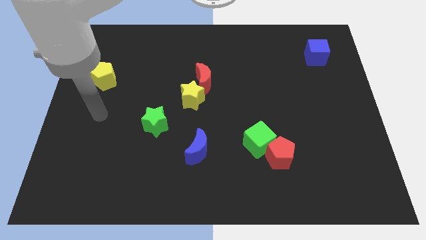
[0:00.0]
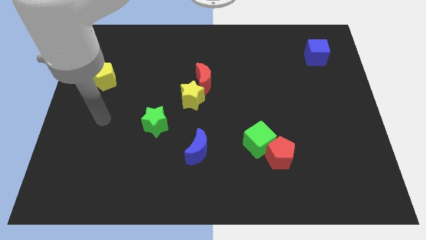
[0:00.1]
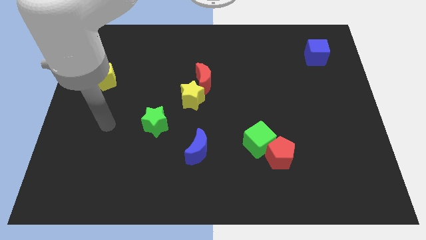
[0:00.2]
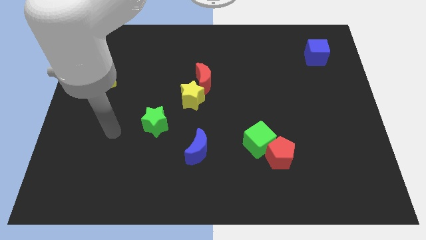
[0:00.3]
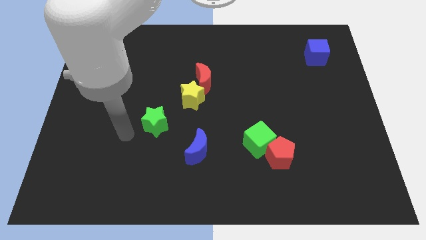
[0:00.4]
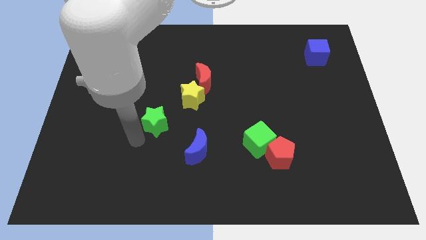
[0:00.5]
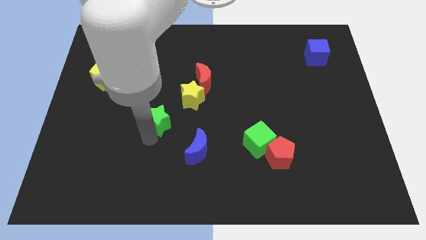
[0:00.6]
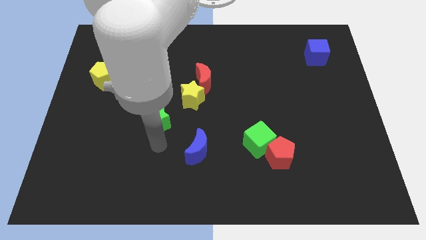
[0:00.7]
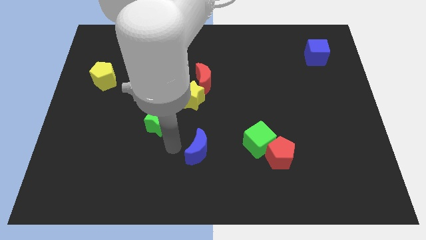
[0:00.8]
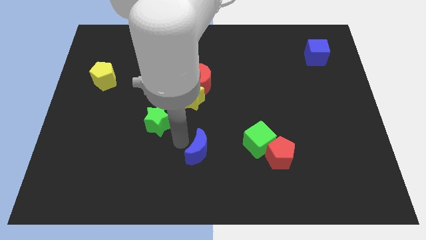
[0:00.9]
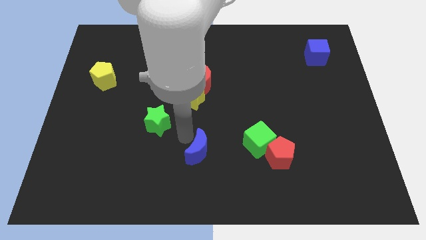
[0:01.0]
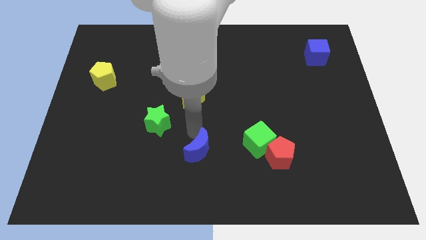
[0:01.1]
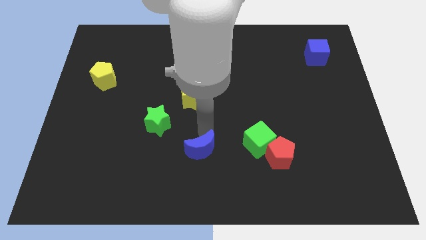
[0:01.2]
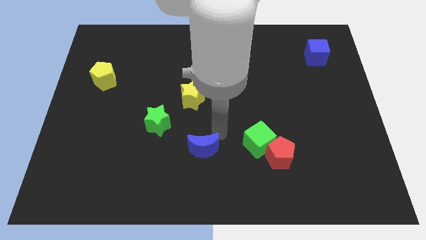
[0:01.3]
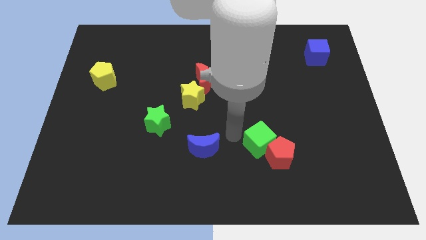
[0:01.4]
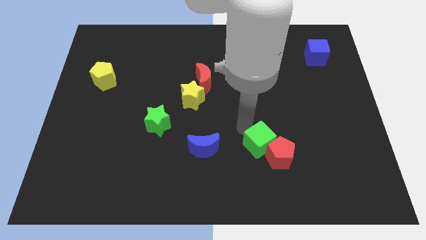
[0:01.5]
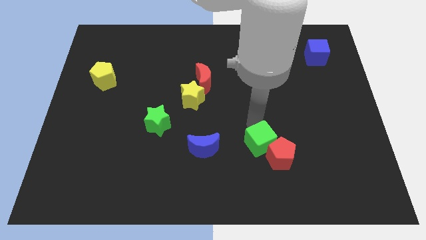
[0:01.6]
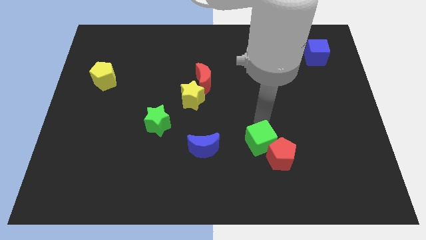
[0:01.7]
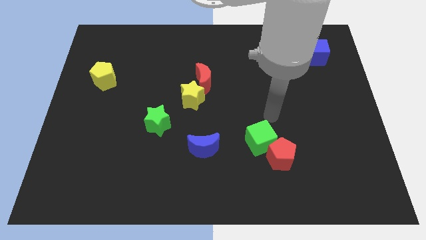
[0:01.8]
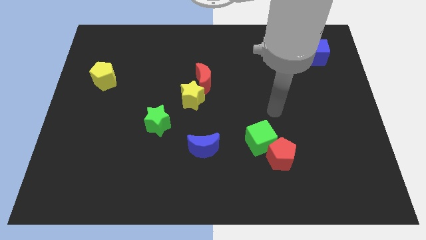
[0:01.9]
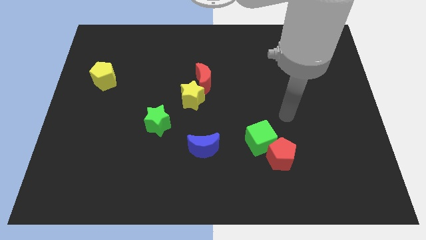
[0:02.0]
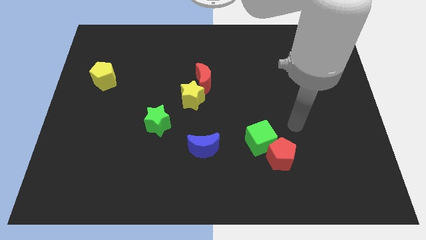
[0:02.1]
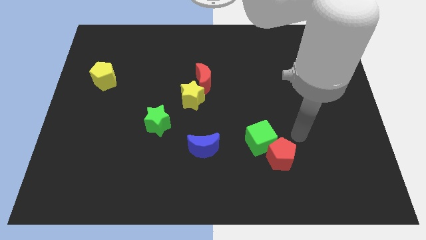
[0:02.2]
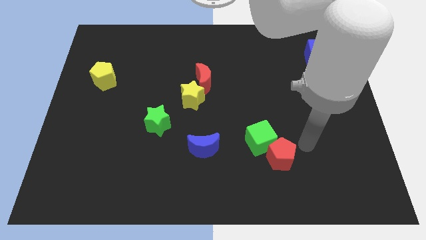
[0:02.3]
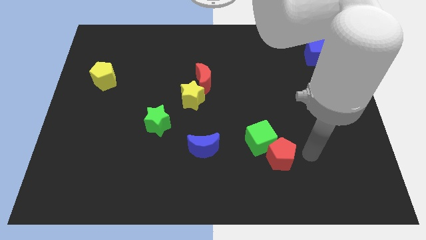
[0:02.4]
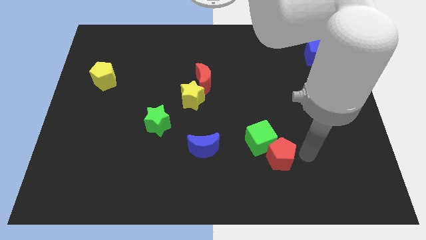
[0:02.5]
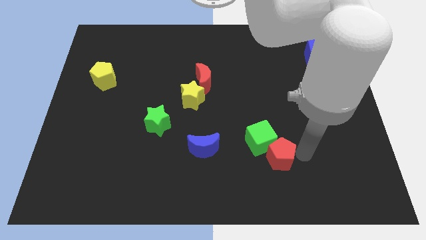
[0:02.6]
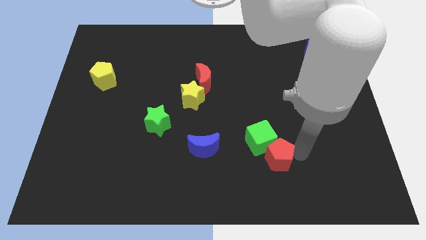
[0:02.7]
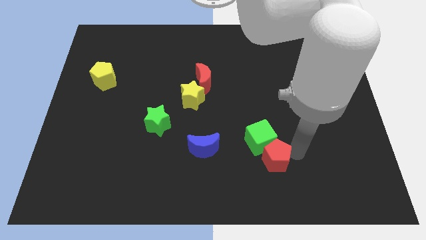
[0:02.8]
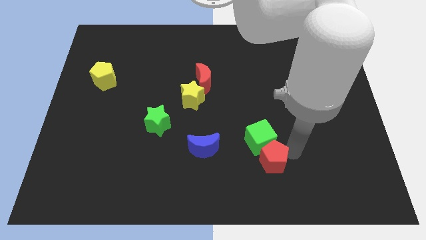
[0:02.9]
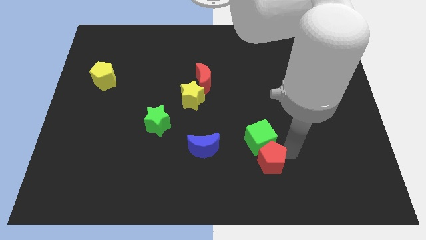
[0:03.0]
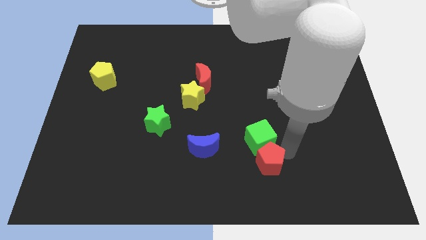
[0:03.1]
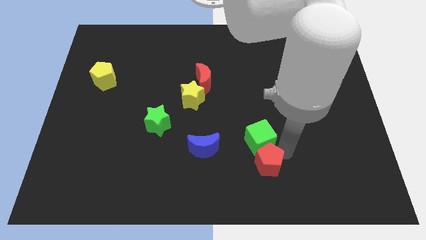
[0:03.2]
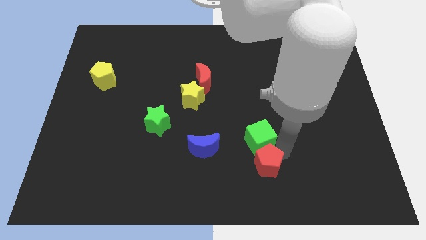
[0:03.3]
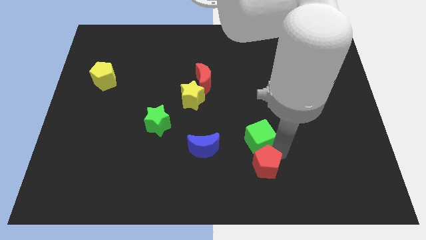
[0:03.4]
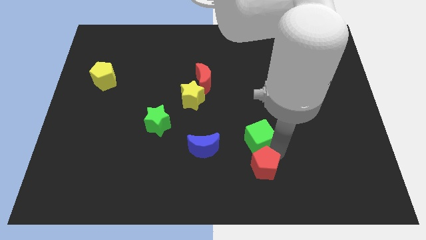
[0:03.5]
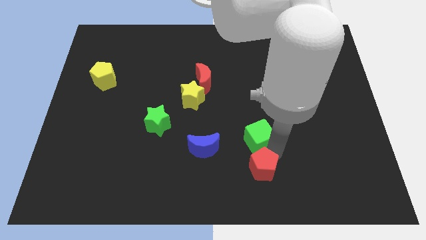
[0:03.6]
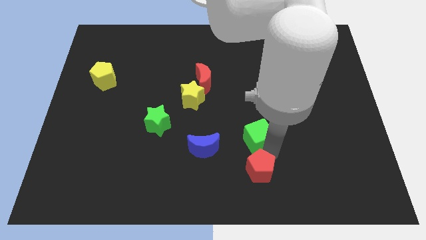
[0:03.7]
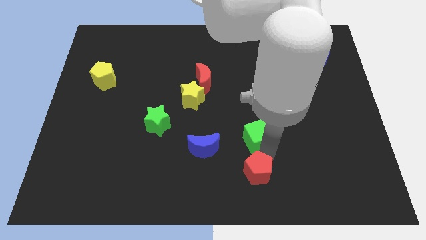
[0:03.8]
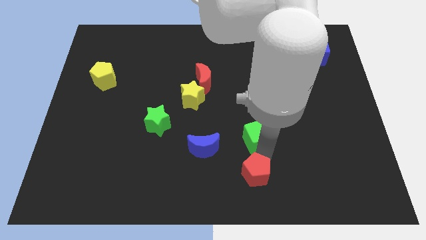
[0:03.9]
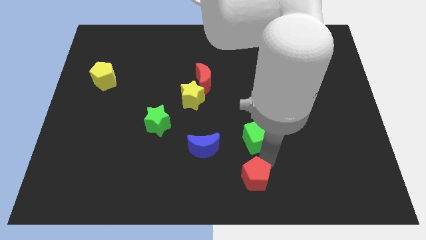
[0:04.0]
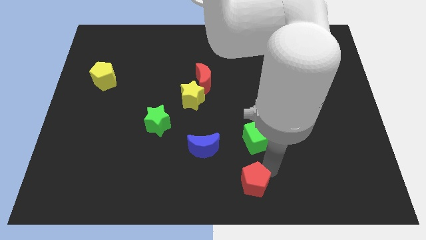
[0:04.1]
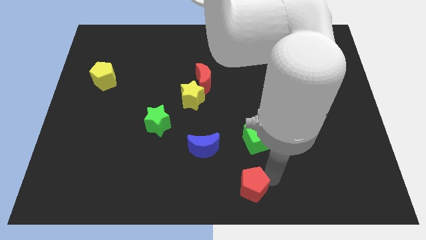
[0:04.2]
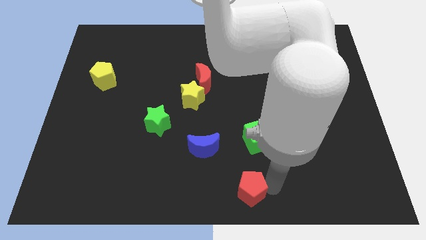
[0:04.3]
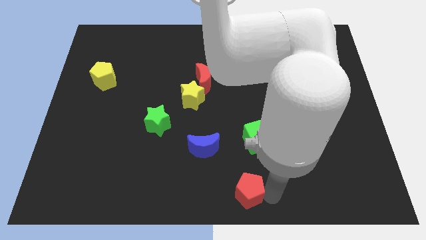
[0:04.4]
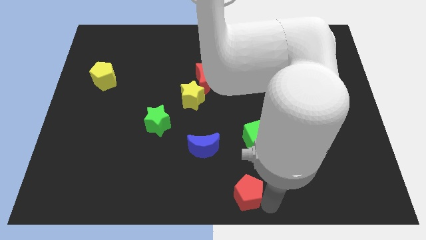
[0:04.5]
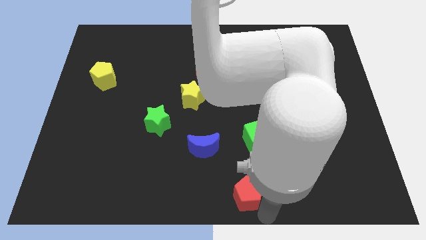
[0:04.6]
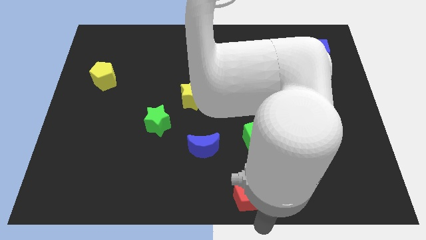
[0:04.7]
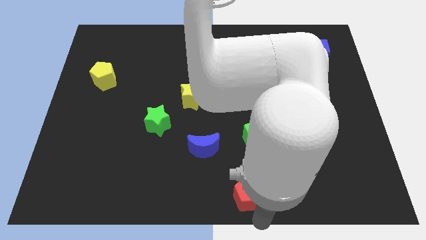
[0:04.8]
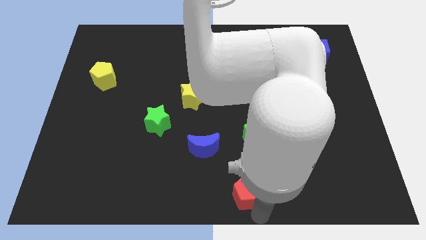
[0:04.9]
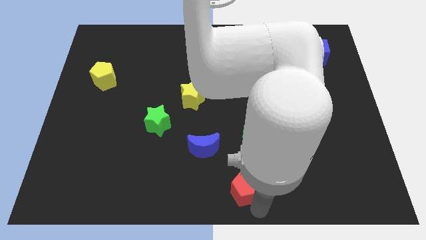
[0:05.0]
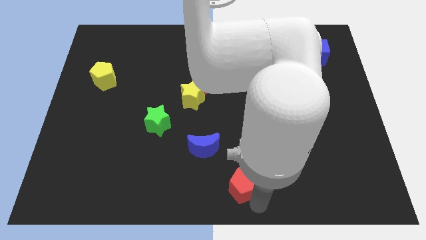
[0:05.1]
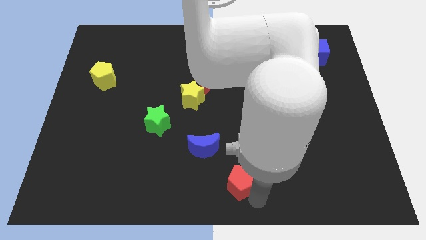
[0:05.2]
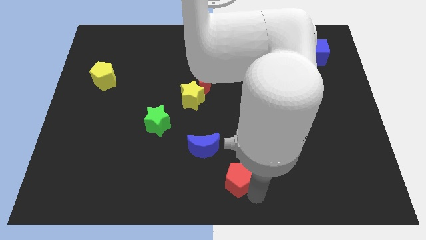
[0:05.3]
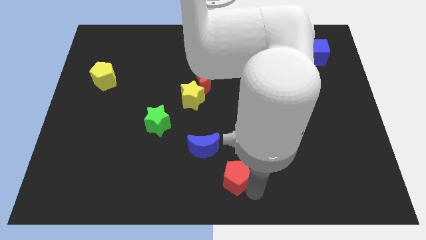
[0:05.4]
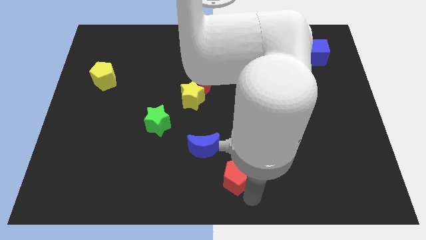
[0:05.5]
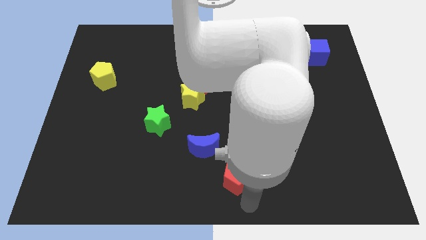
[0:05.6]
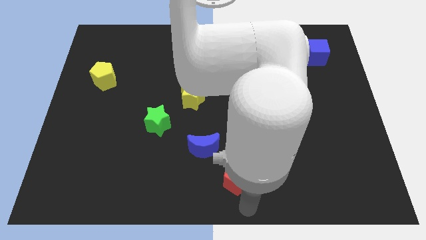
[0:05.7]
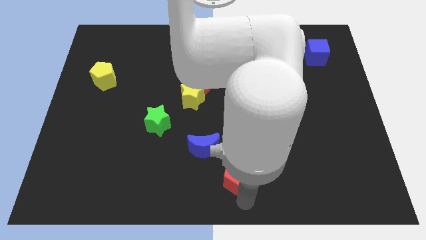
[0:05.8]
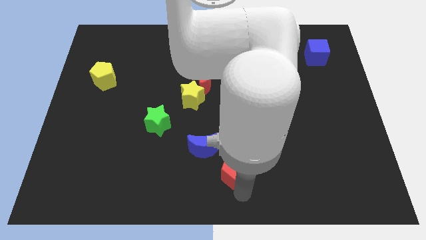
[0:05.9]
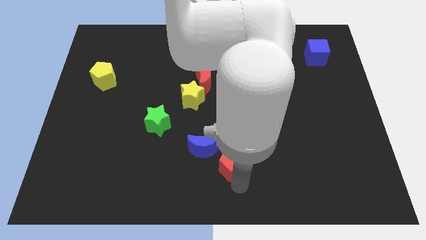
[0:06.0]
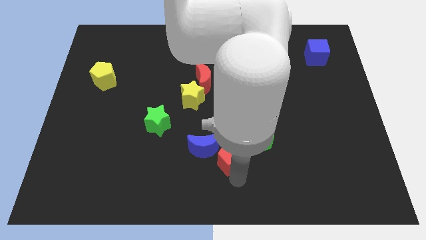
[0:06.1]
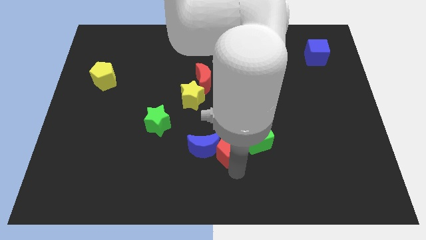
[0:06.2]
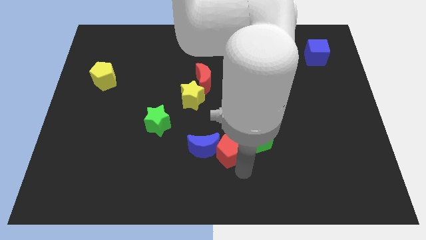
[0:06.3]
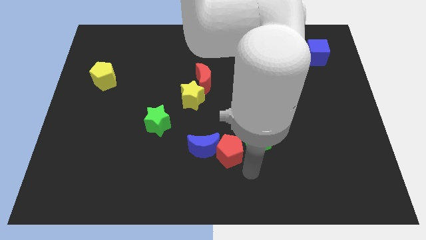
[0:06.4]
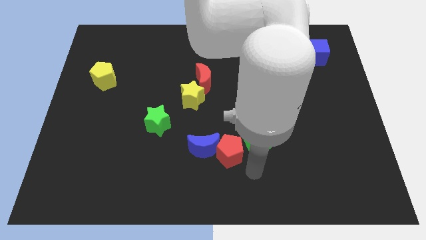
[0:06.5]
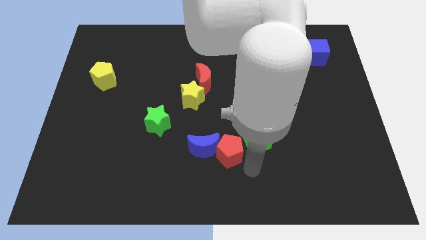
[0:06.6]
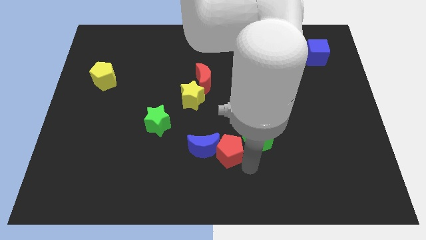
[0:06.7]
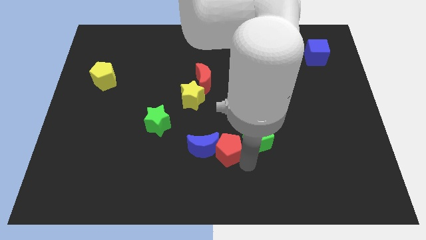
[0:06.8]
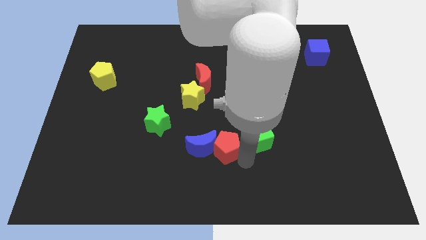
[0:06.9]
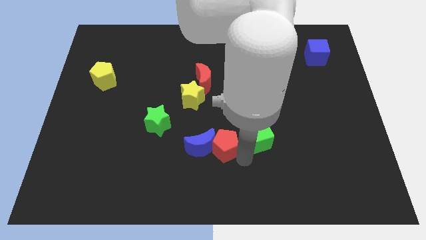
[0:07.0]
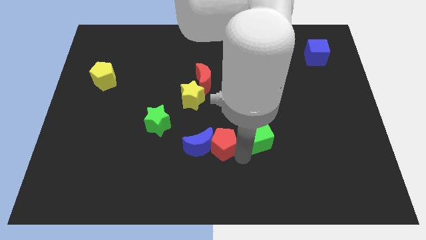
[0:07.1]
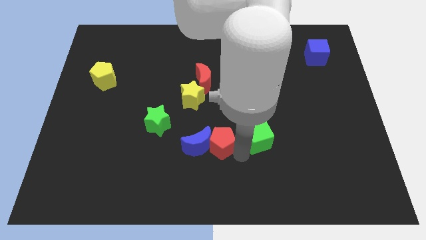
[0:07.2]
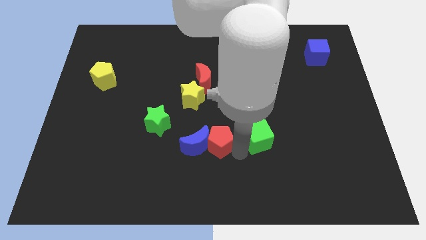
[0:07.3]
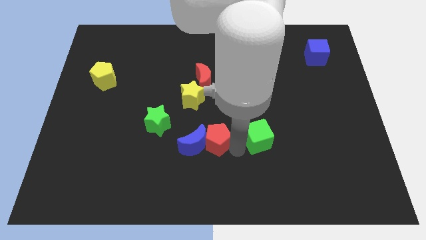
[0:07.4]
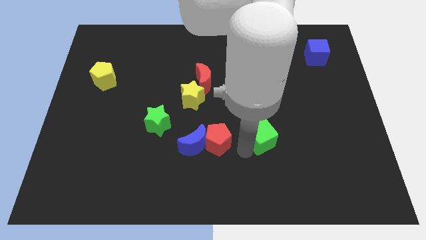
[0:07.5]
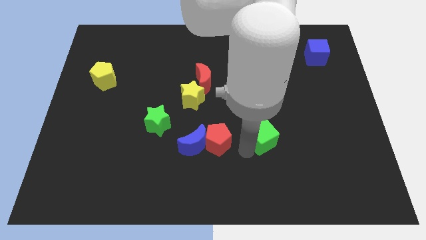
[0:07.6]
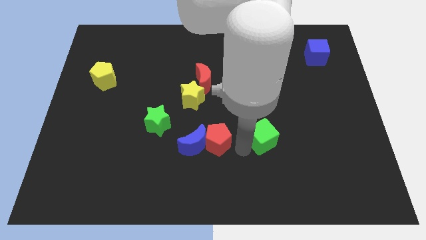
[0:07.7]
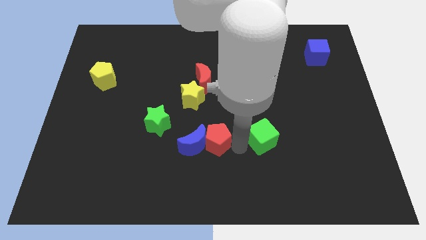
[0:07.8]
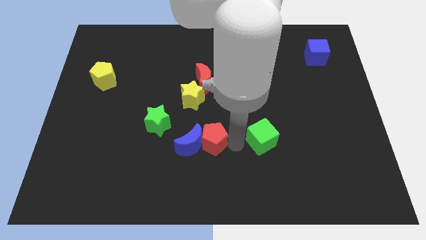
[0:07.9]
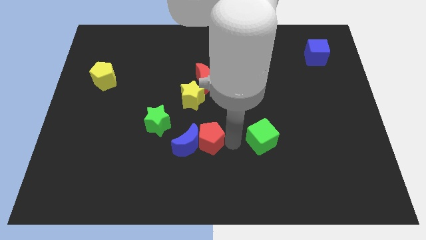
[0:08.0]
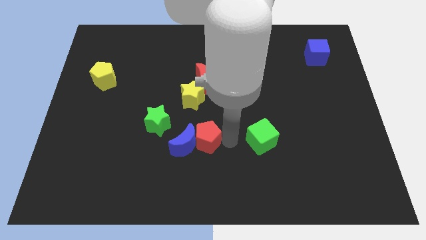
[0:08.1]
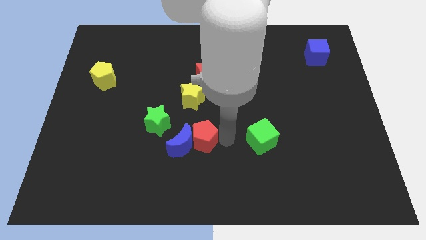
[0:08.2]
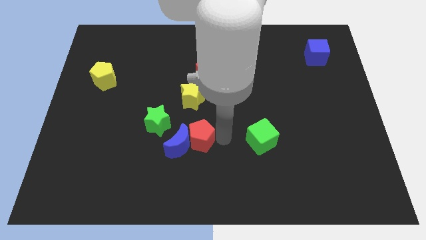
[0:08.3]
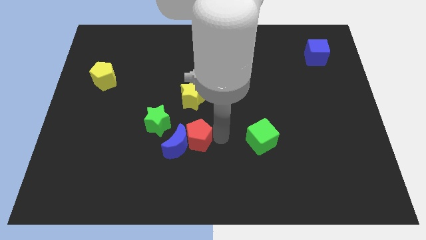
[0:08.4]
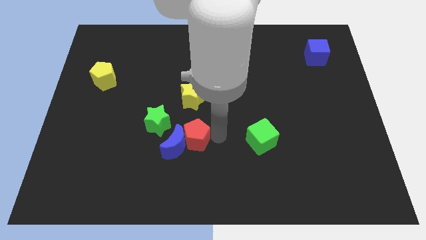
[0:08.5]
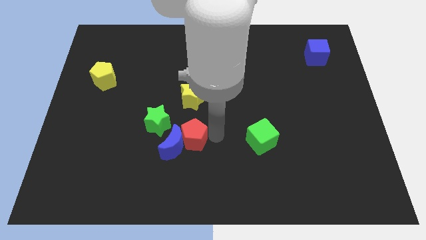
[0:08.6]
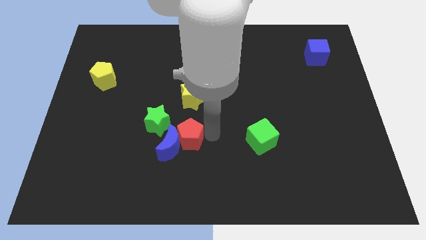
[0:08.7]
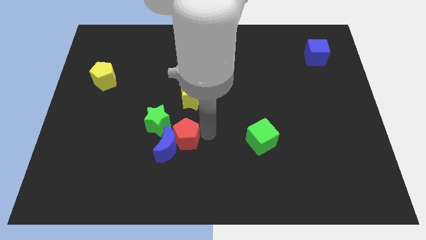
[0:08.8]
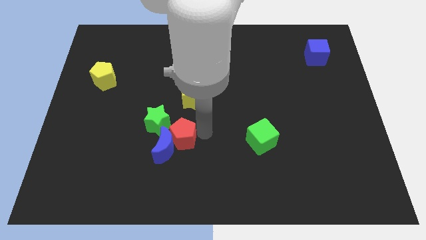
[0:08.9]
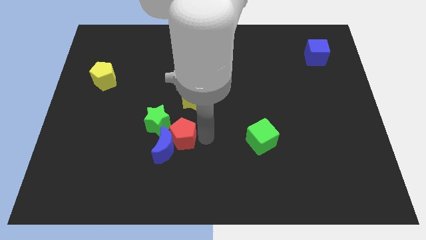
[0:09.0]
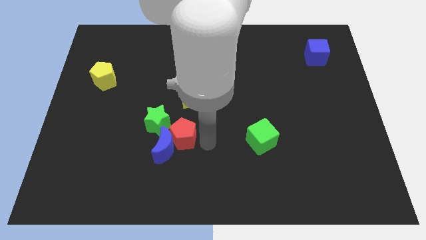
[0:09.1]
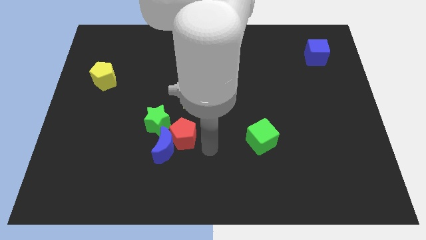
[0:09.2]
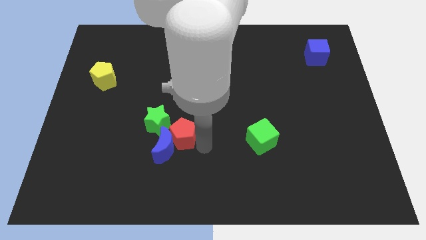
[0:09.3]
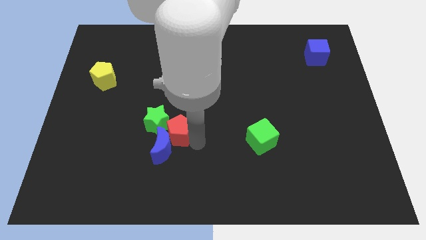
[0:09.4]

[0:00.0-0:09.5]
push the red pentagon towards the green star
